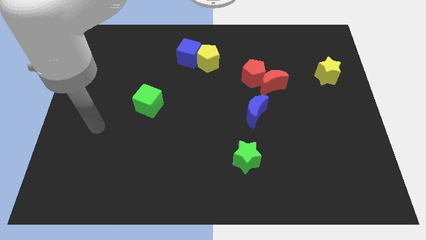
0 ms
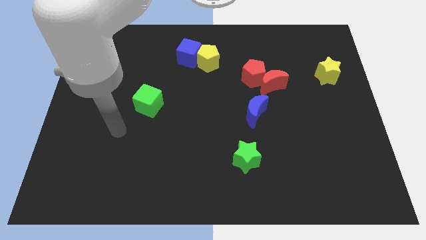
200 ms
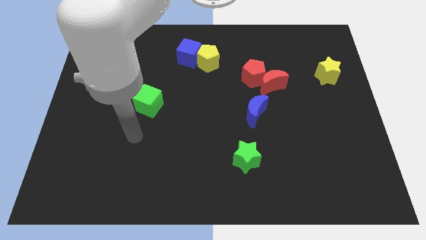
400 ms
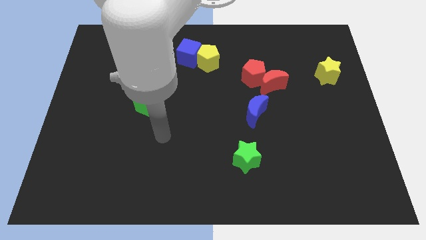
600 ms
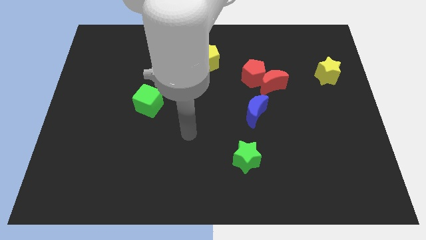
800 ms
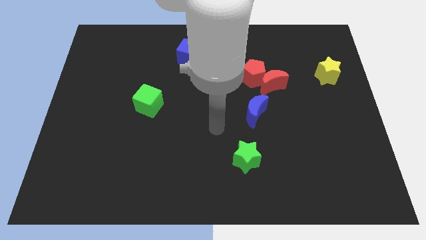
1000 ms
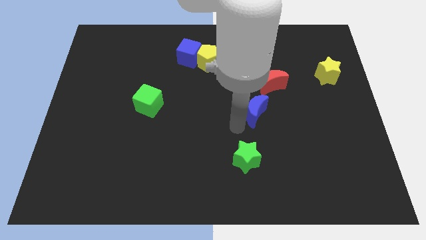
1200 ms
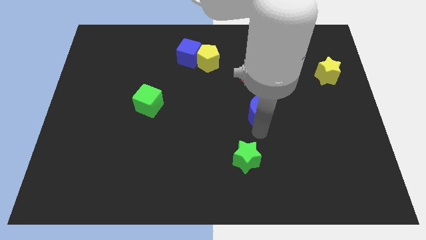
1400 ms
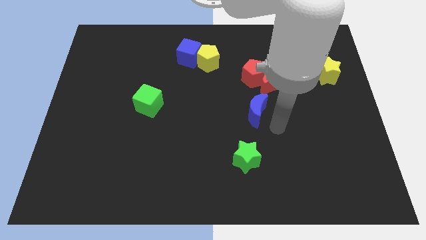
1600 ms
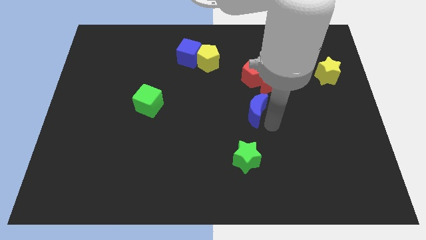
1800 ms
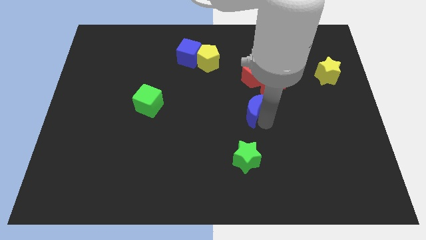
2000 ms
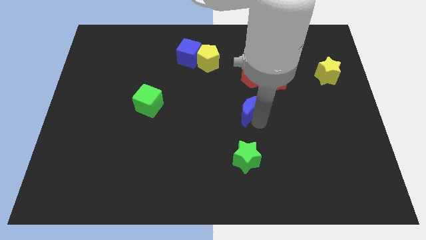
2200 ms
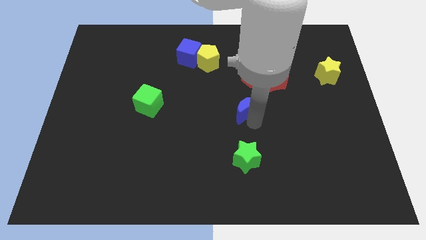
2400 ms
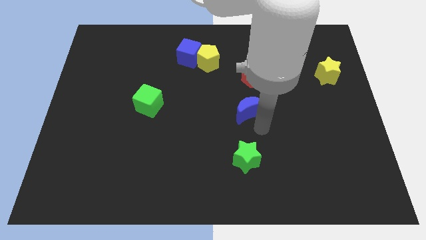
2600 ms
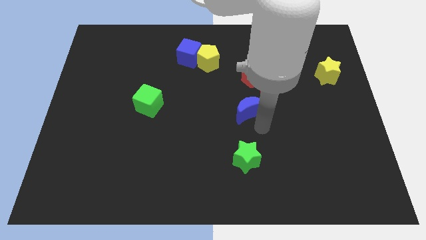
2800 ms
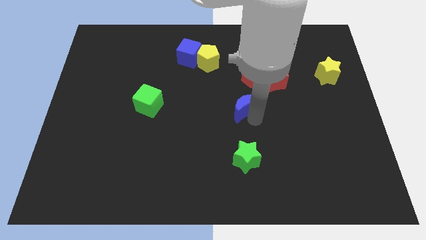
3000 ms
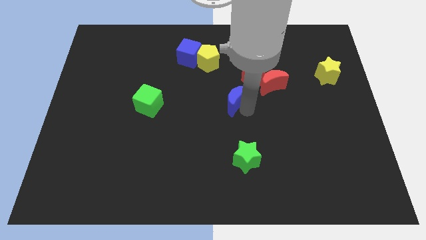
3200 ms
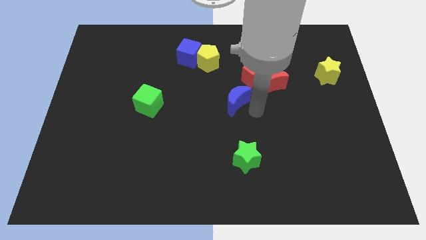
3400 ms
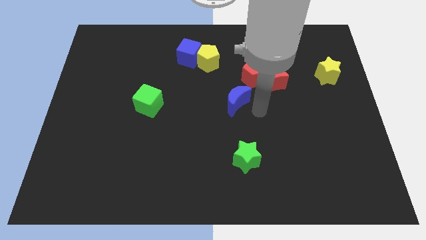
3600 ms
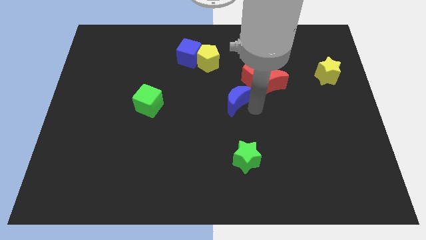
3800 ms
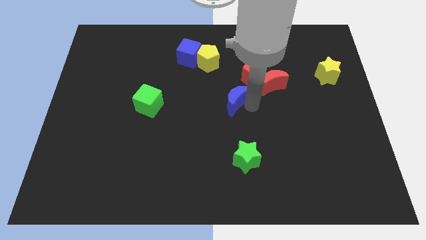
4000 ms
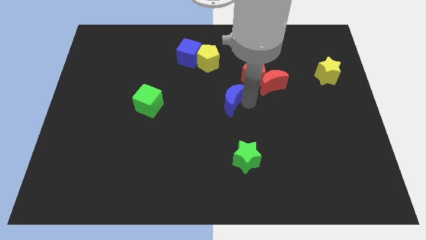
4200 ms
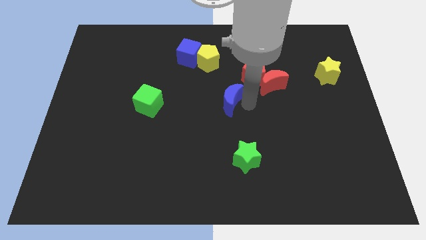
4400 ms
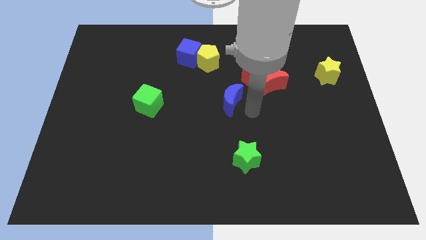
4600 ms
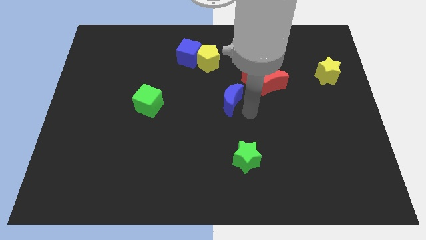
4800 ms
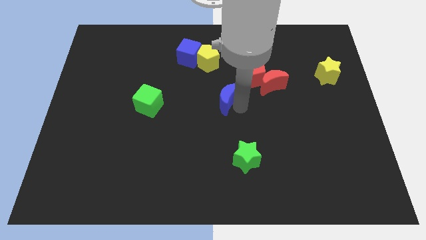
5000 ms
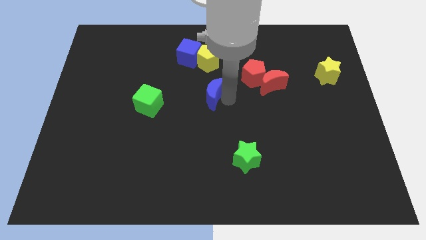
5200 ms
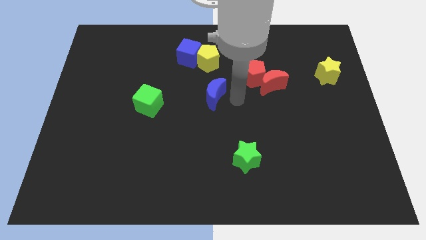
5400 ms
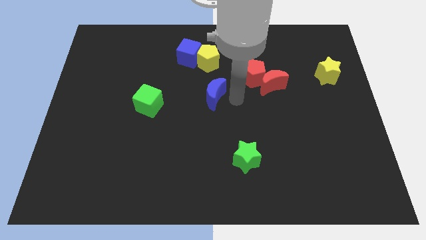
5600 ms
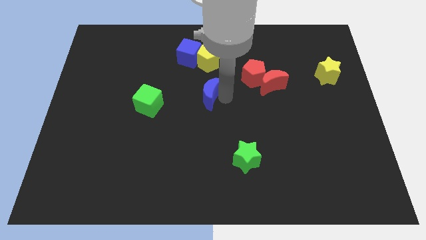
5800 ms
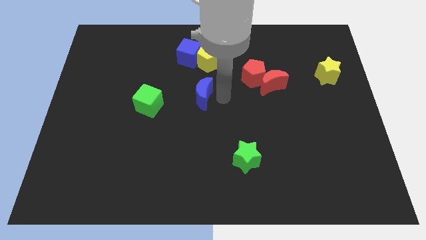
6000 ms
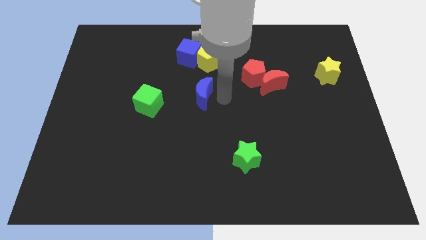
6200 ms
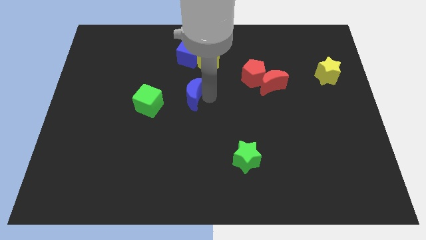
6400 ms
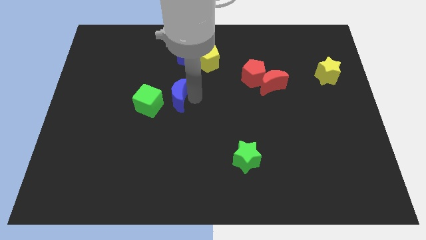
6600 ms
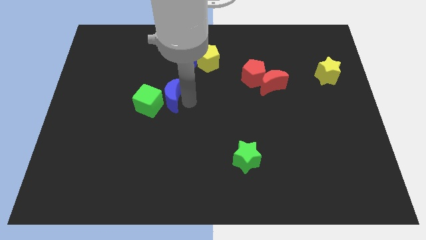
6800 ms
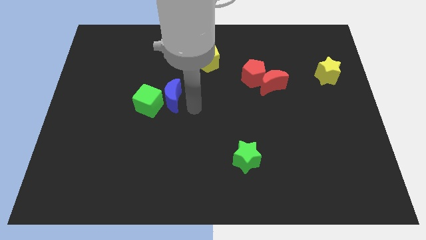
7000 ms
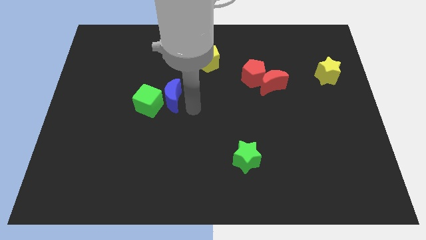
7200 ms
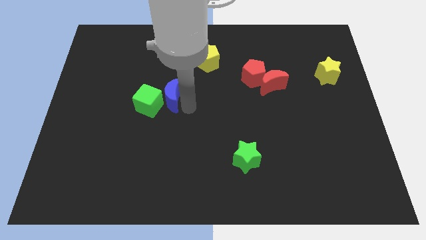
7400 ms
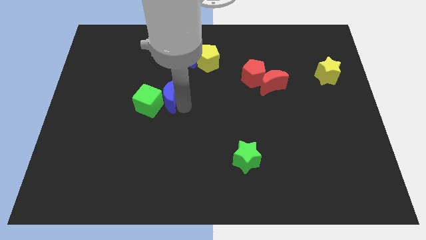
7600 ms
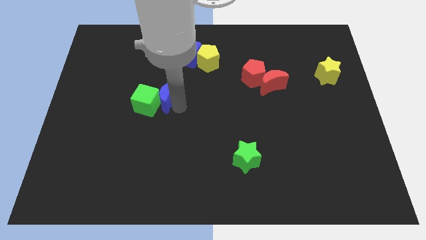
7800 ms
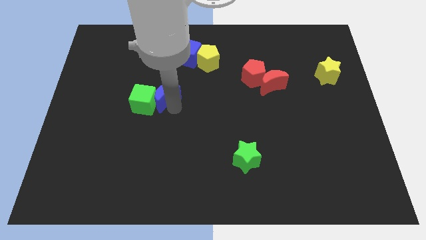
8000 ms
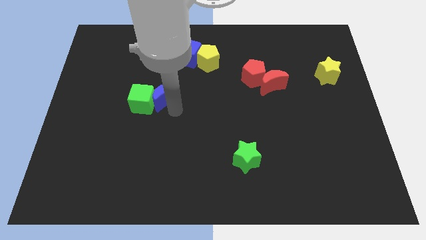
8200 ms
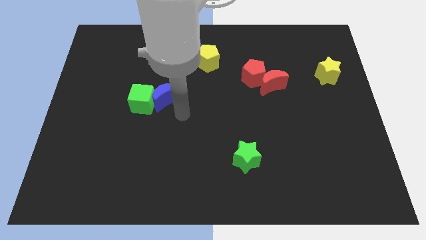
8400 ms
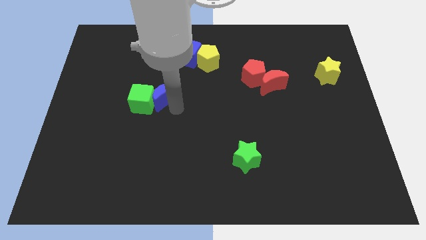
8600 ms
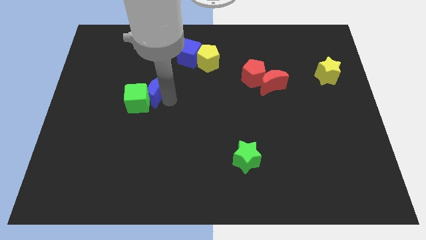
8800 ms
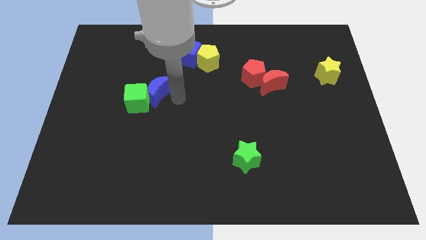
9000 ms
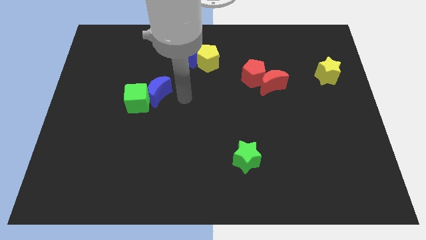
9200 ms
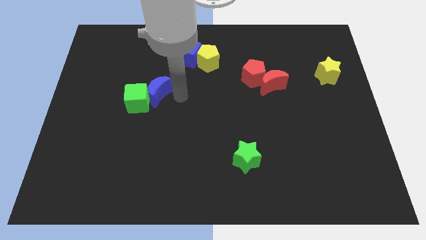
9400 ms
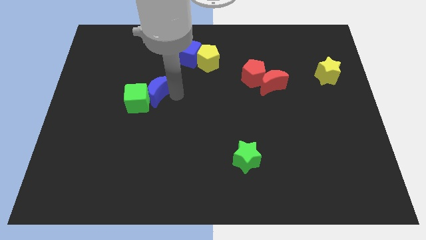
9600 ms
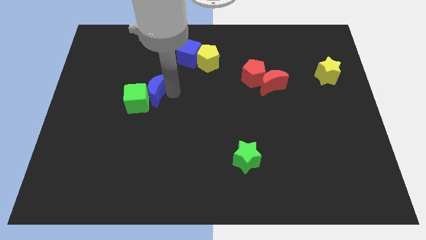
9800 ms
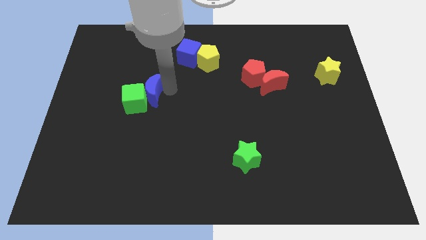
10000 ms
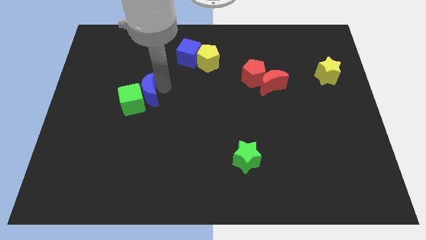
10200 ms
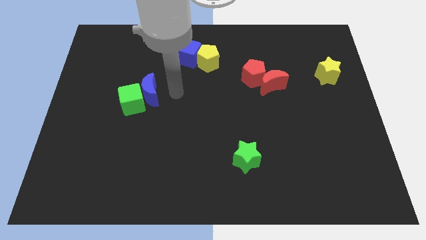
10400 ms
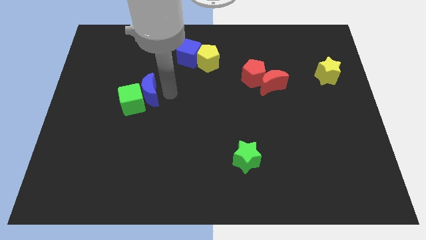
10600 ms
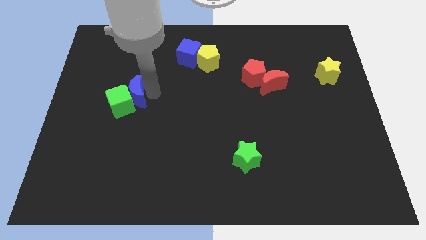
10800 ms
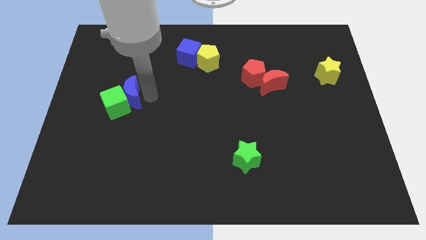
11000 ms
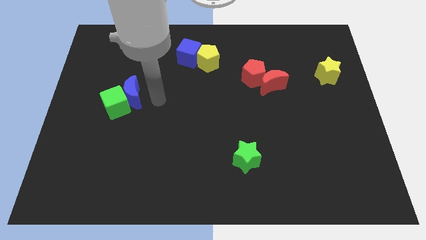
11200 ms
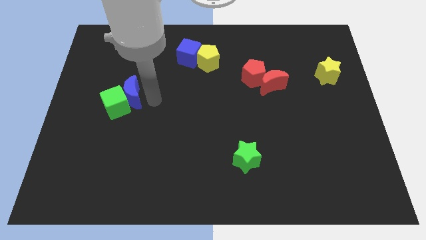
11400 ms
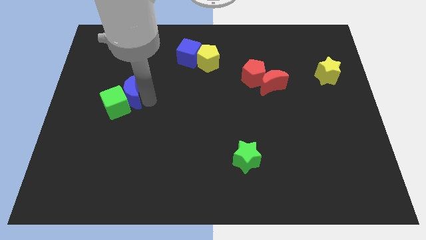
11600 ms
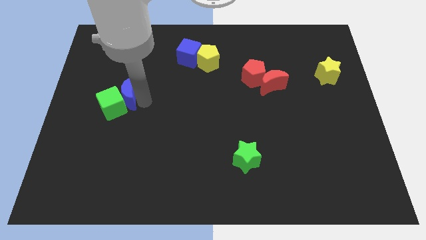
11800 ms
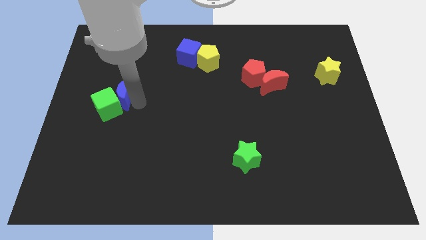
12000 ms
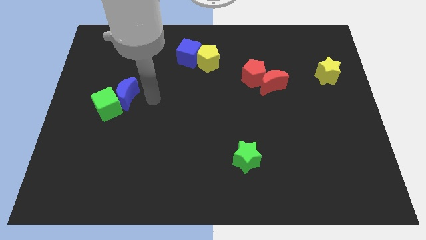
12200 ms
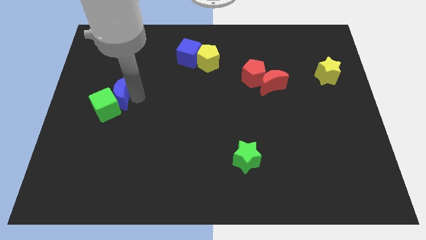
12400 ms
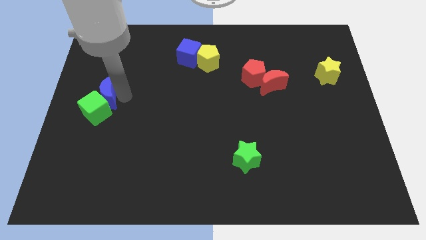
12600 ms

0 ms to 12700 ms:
push the blue moon to the center left
